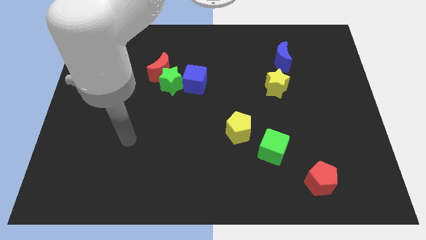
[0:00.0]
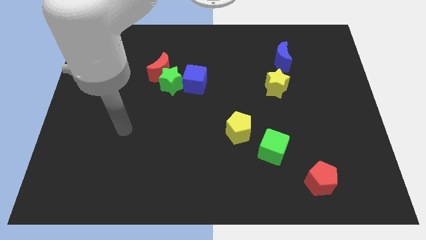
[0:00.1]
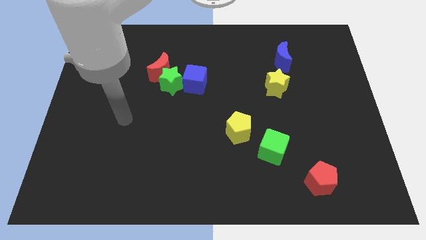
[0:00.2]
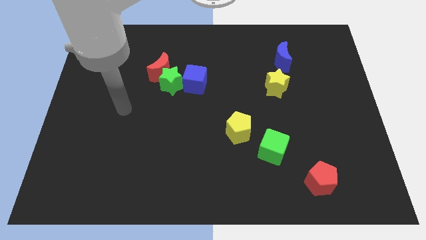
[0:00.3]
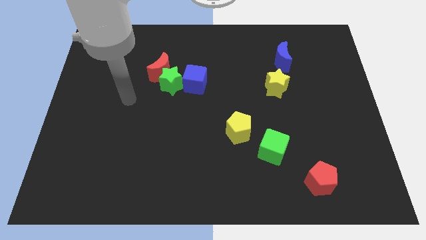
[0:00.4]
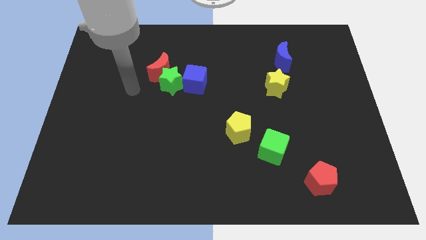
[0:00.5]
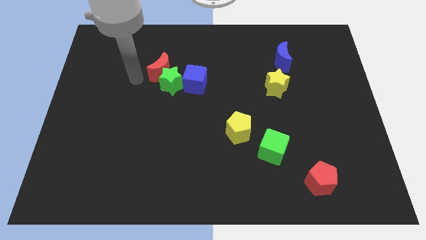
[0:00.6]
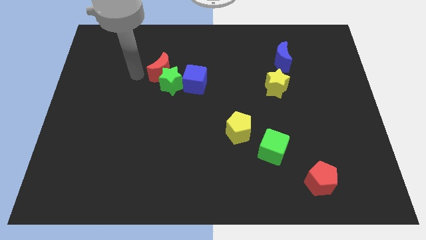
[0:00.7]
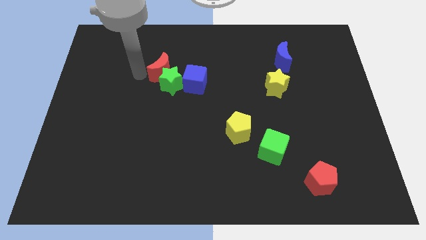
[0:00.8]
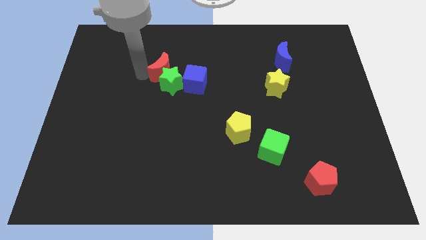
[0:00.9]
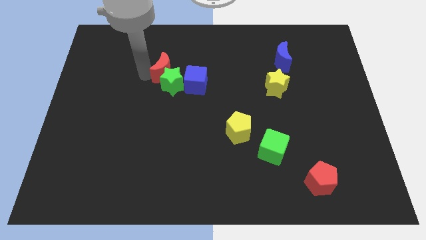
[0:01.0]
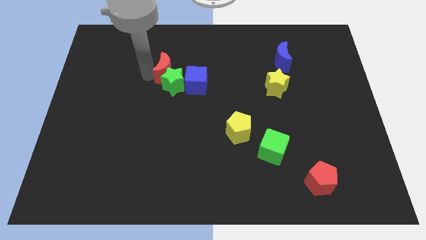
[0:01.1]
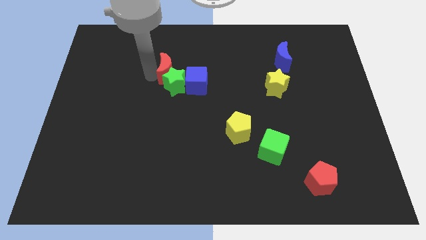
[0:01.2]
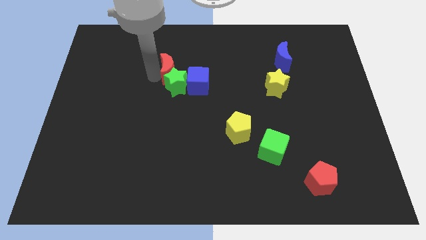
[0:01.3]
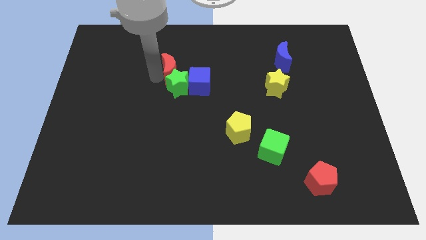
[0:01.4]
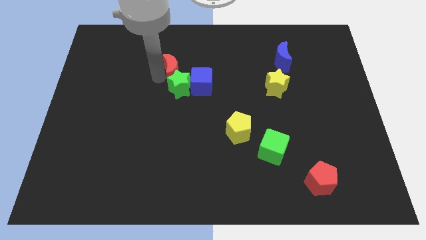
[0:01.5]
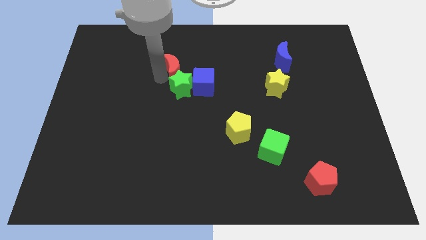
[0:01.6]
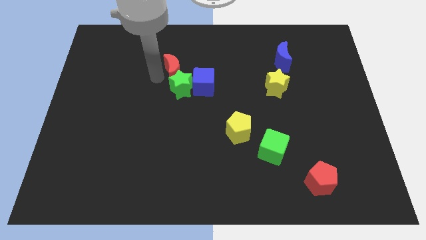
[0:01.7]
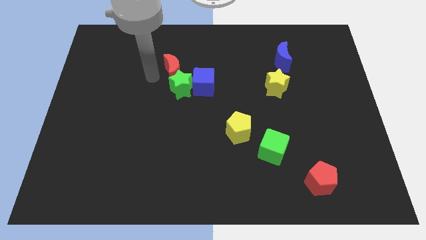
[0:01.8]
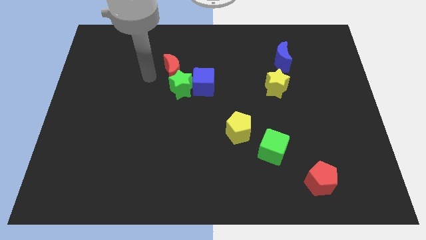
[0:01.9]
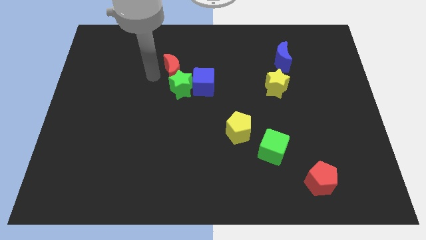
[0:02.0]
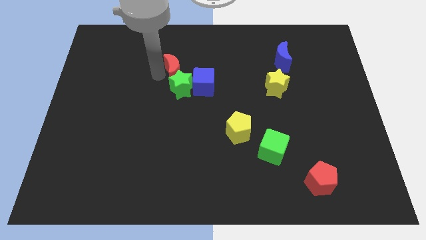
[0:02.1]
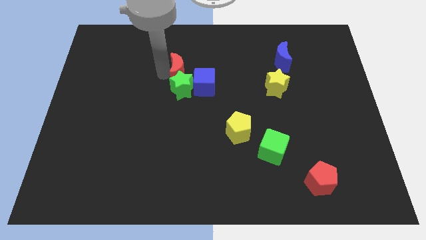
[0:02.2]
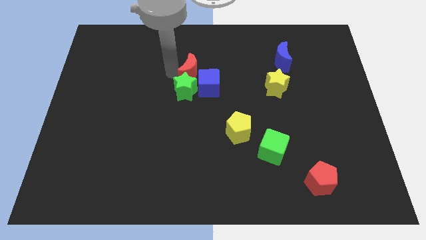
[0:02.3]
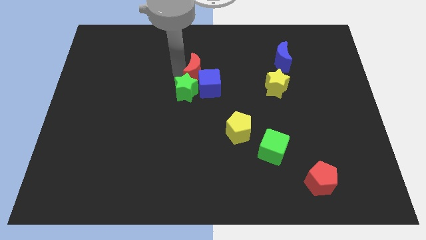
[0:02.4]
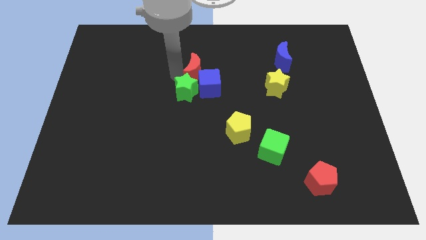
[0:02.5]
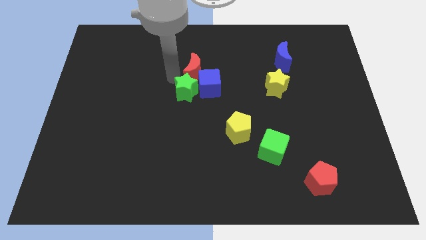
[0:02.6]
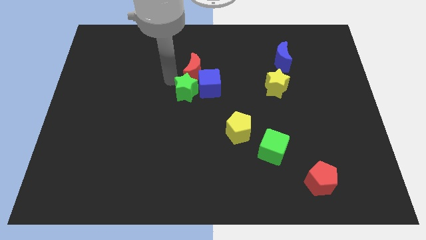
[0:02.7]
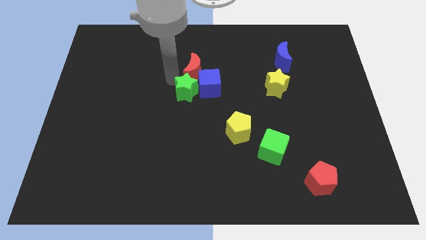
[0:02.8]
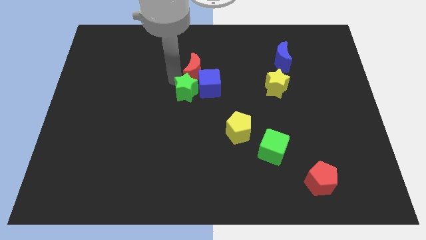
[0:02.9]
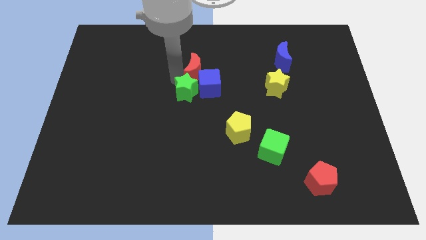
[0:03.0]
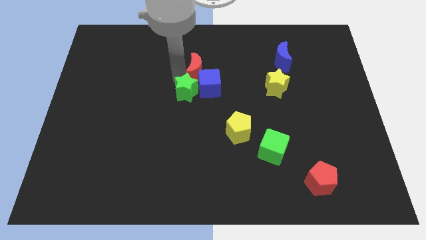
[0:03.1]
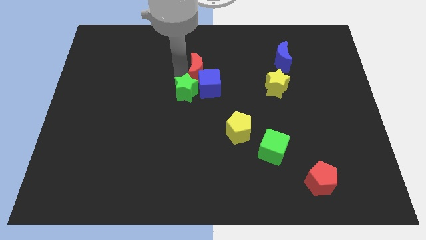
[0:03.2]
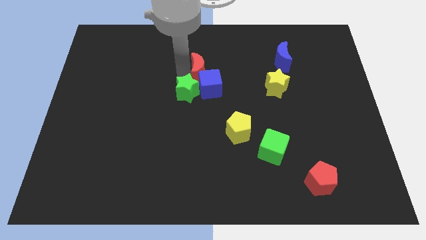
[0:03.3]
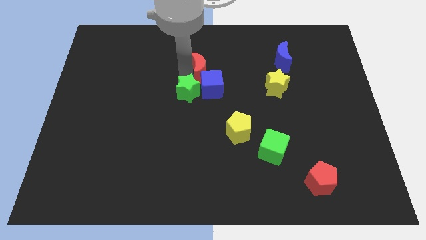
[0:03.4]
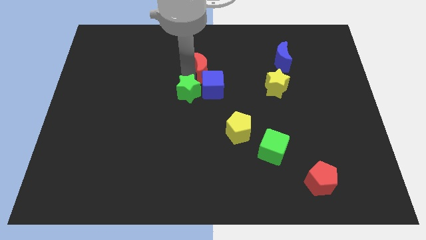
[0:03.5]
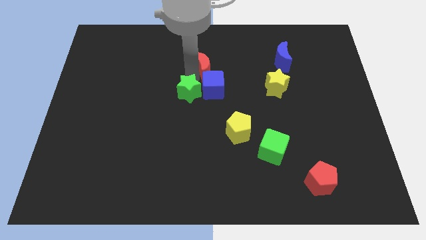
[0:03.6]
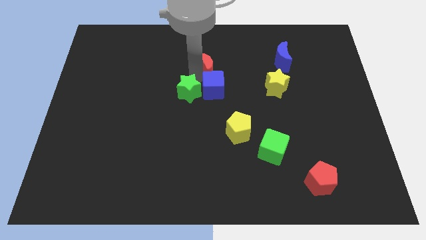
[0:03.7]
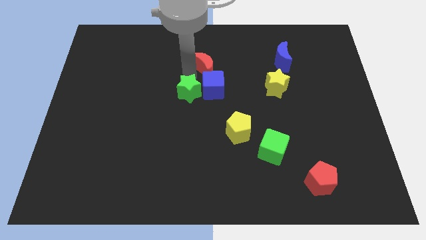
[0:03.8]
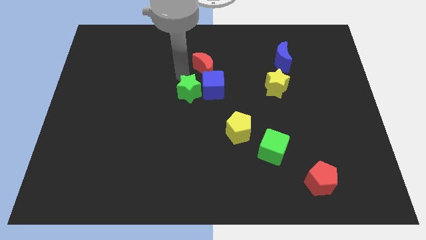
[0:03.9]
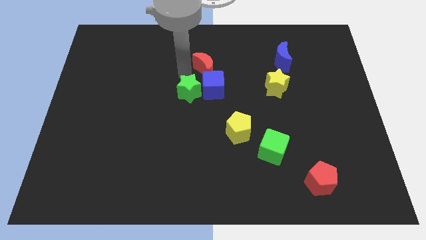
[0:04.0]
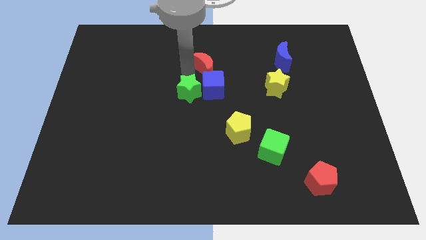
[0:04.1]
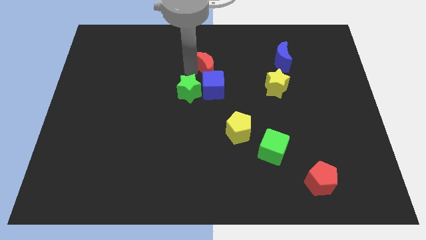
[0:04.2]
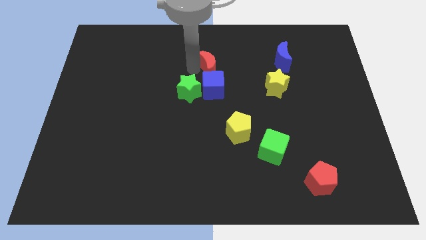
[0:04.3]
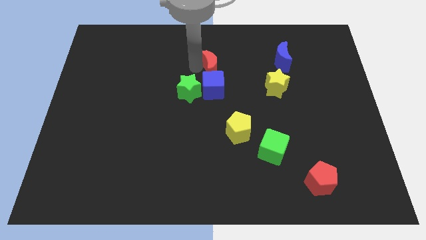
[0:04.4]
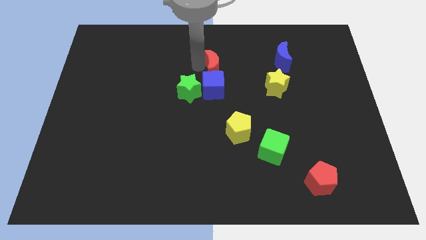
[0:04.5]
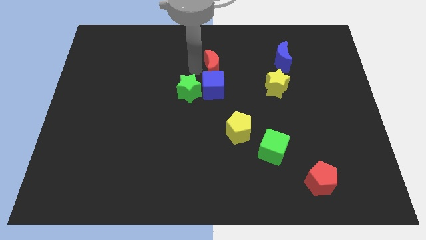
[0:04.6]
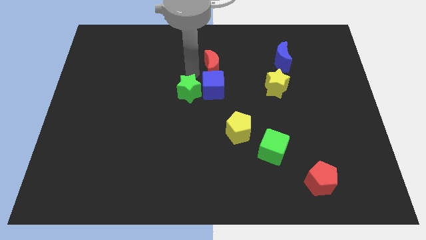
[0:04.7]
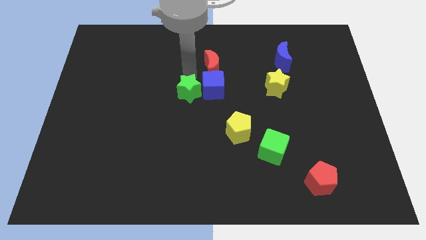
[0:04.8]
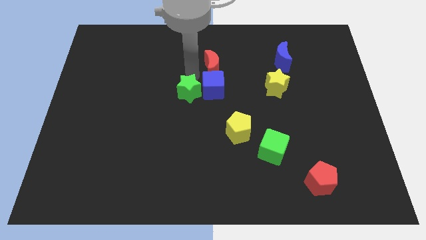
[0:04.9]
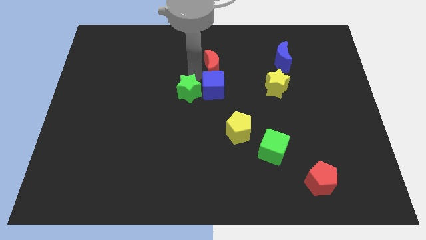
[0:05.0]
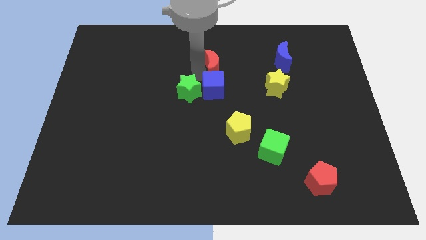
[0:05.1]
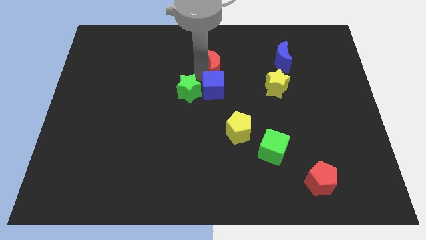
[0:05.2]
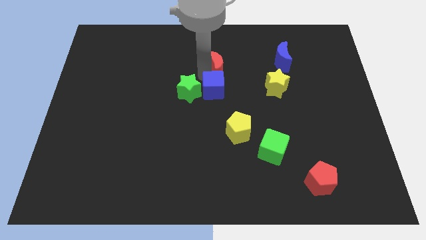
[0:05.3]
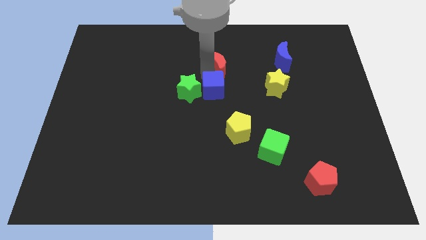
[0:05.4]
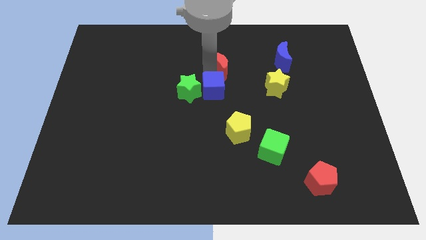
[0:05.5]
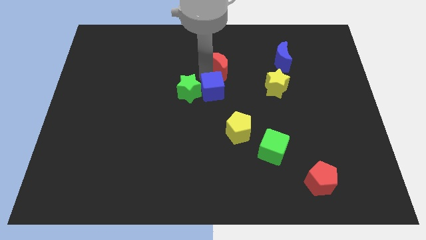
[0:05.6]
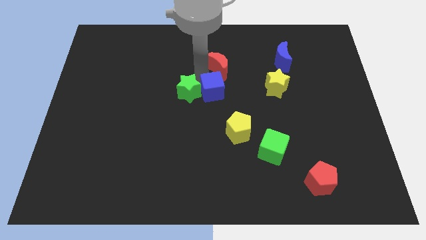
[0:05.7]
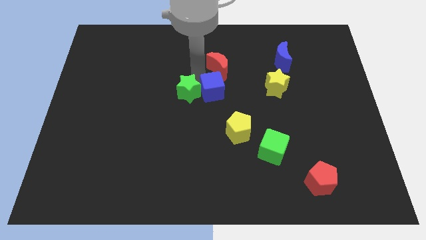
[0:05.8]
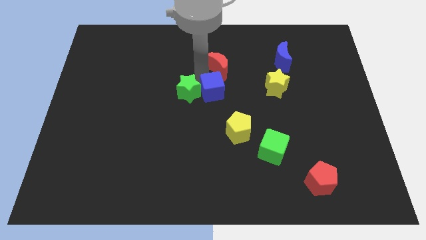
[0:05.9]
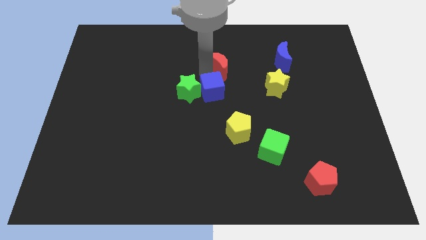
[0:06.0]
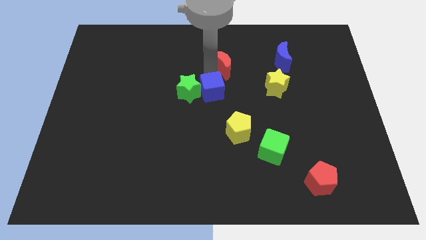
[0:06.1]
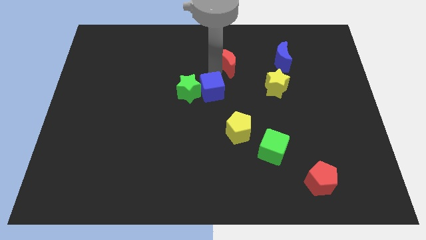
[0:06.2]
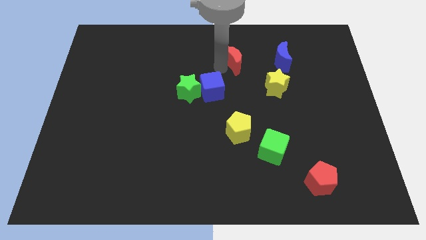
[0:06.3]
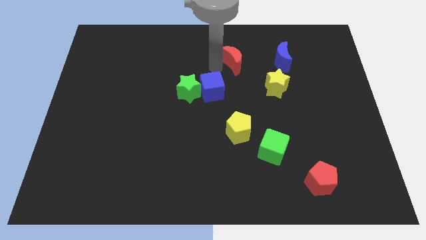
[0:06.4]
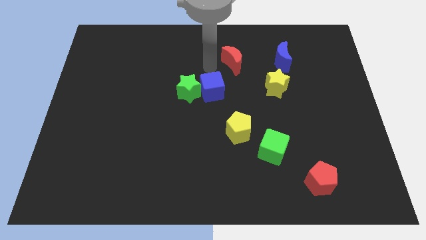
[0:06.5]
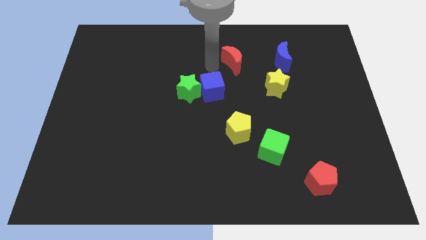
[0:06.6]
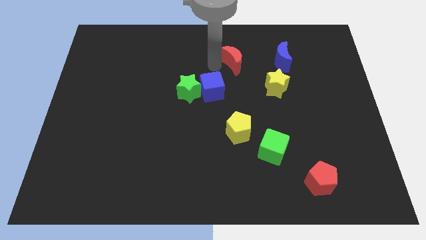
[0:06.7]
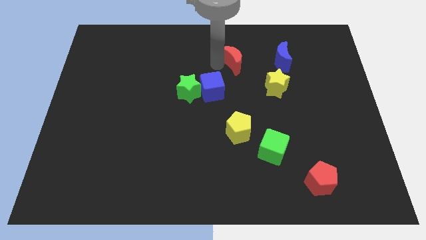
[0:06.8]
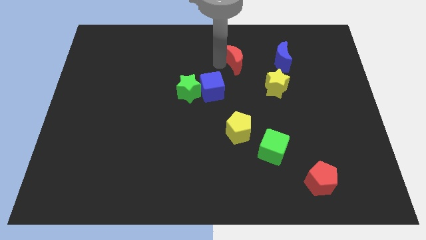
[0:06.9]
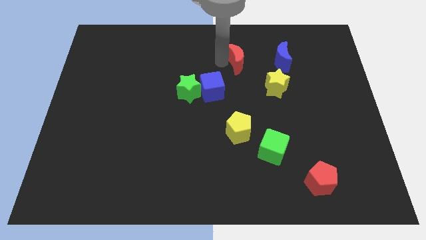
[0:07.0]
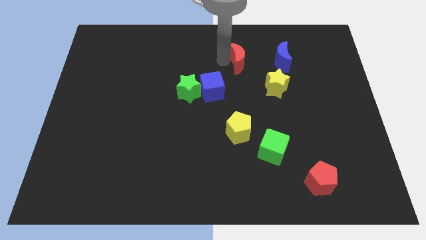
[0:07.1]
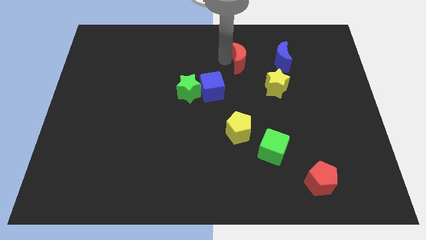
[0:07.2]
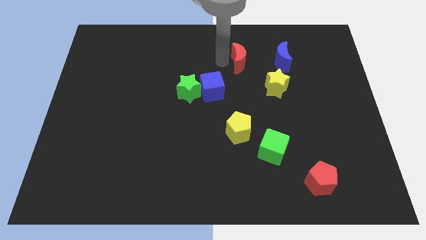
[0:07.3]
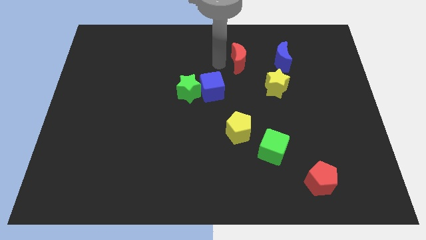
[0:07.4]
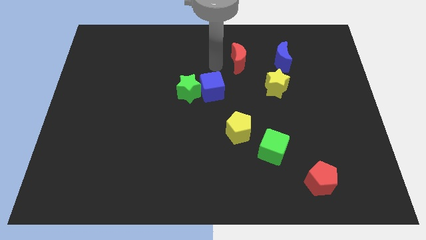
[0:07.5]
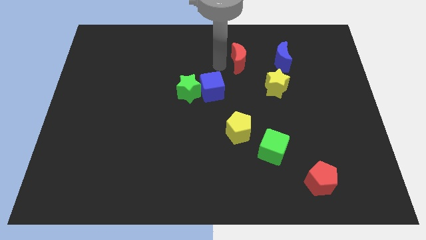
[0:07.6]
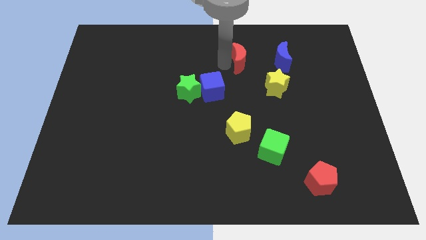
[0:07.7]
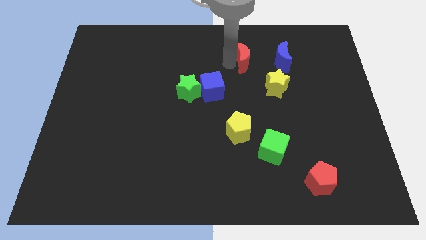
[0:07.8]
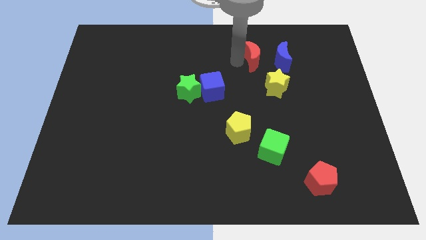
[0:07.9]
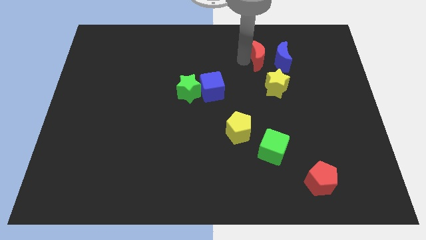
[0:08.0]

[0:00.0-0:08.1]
put the red moon close to the blue moon
